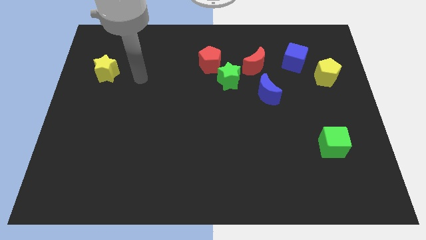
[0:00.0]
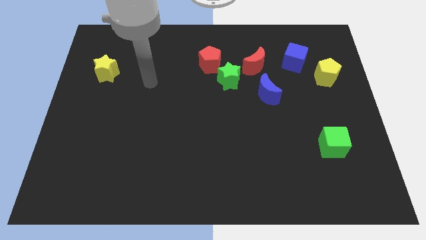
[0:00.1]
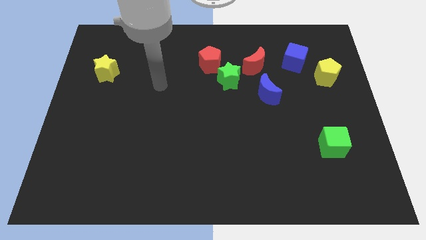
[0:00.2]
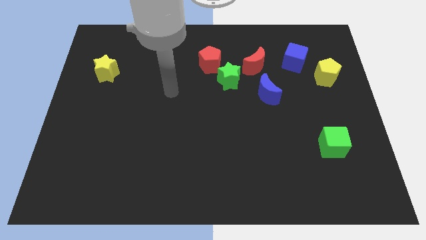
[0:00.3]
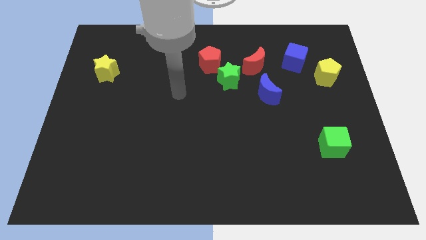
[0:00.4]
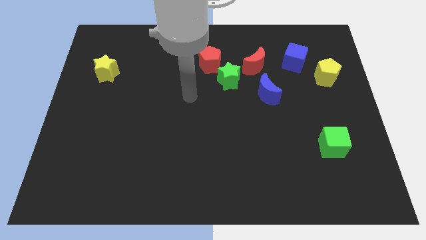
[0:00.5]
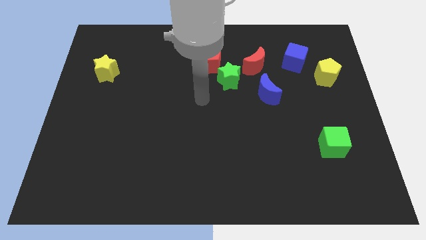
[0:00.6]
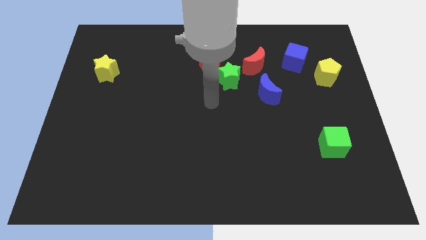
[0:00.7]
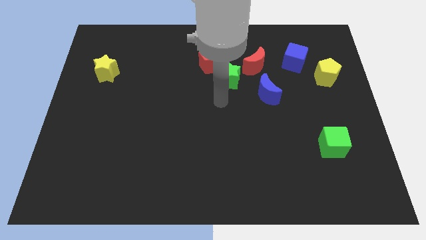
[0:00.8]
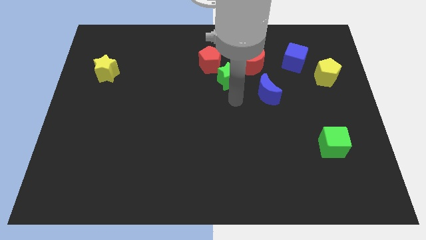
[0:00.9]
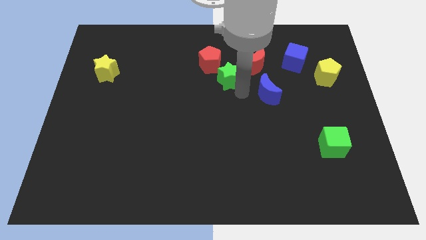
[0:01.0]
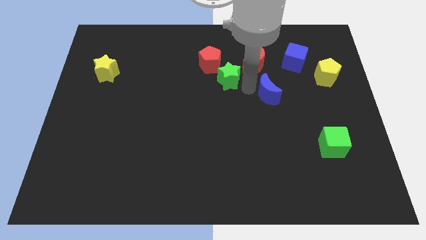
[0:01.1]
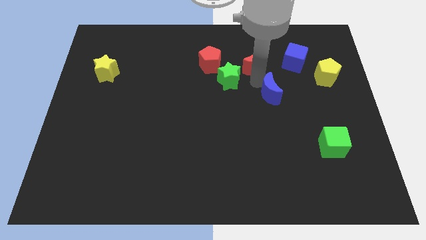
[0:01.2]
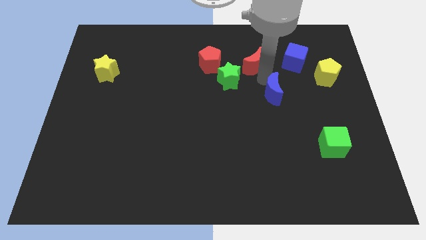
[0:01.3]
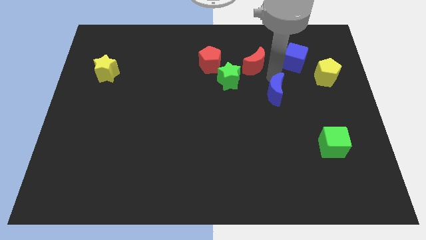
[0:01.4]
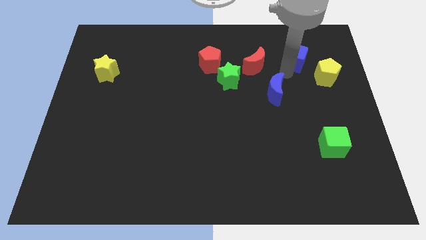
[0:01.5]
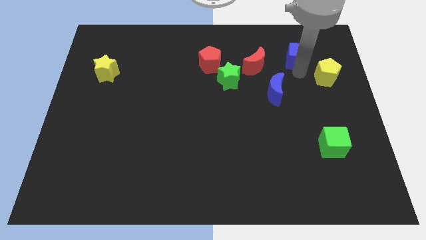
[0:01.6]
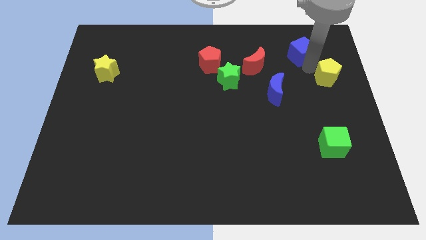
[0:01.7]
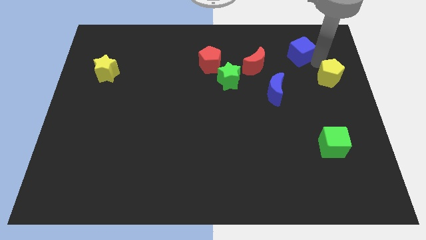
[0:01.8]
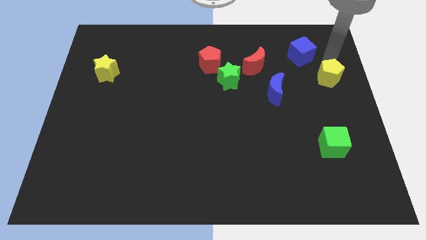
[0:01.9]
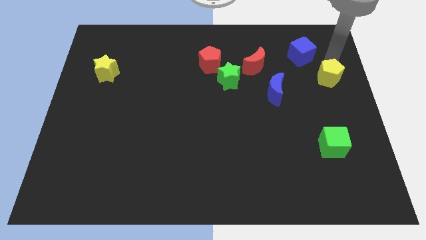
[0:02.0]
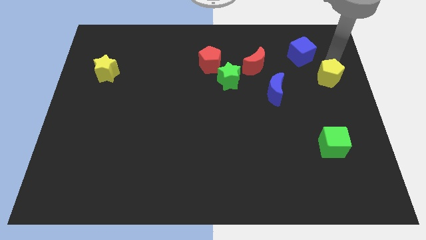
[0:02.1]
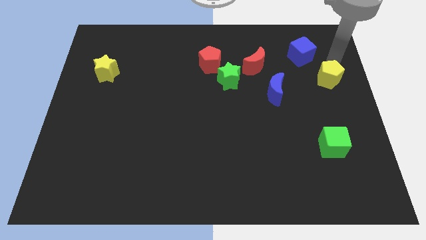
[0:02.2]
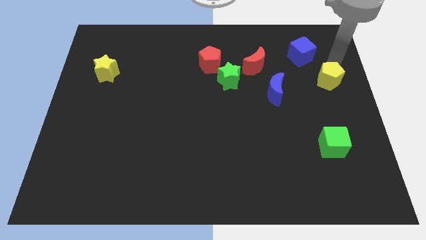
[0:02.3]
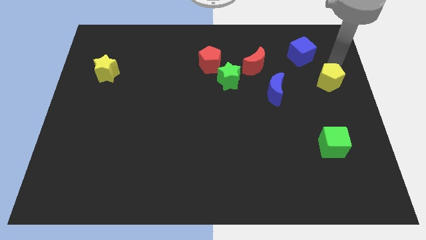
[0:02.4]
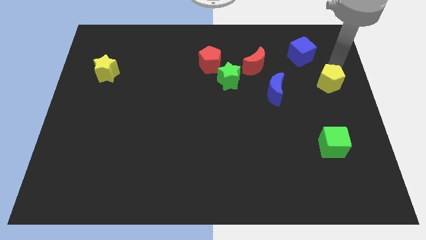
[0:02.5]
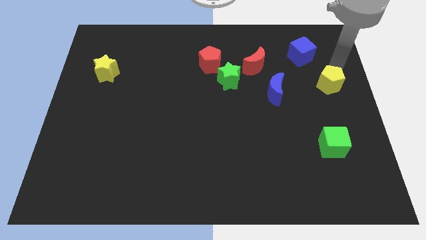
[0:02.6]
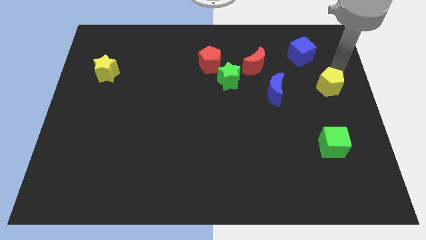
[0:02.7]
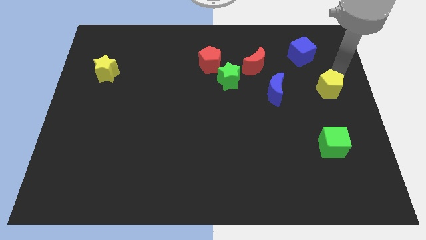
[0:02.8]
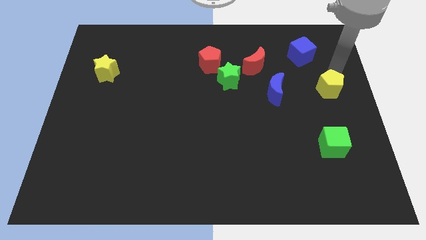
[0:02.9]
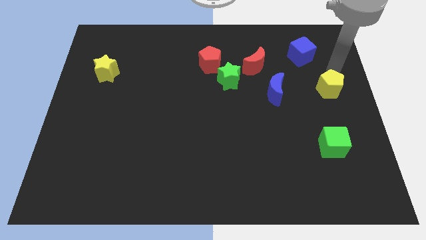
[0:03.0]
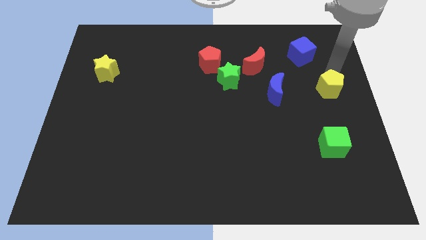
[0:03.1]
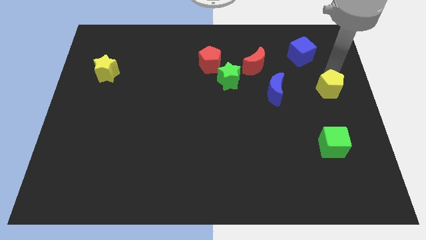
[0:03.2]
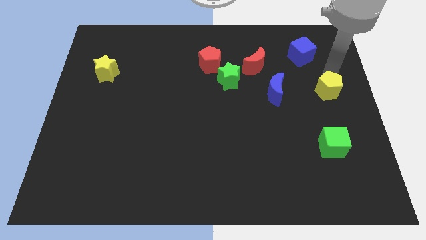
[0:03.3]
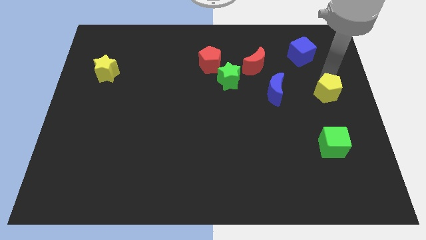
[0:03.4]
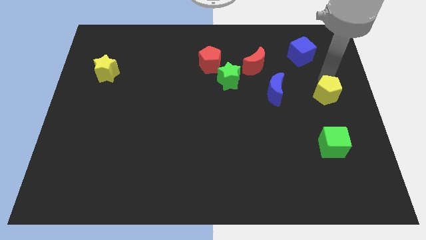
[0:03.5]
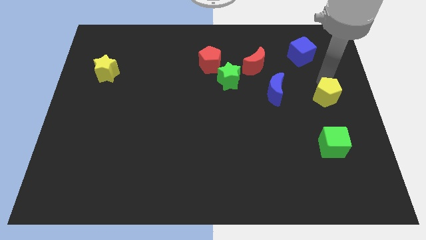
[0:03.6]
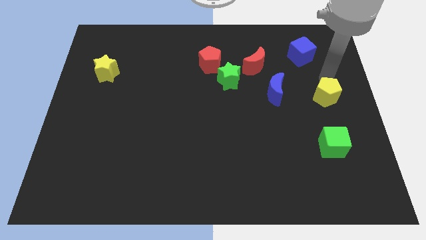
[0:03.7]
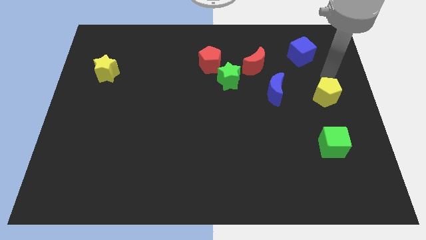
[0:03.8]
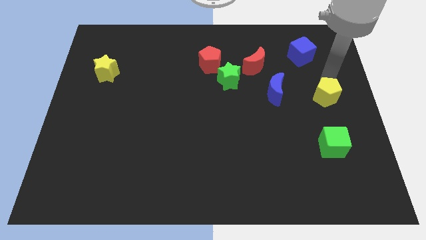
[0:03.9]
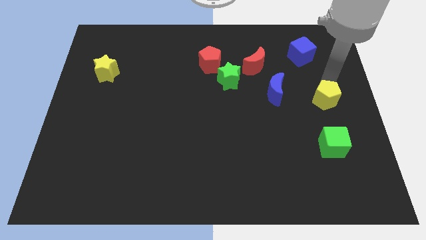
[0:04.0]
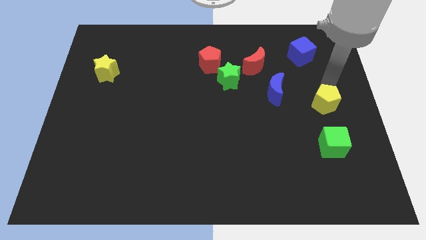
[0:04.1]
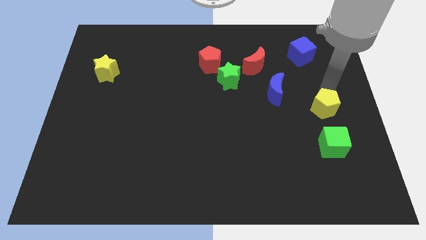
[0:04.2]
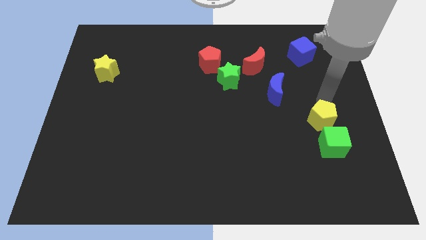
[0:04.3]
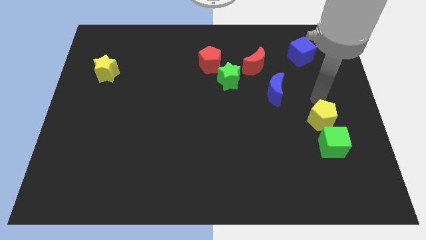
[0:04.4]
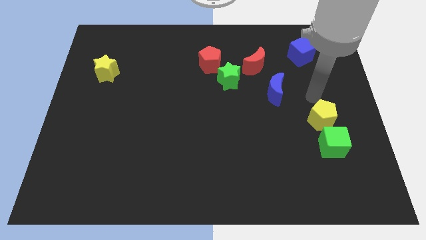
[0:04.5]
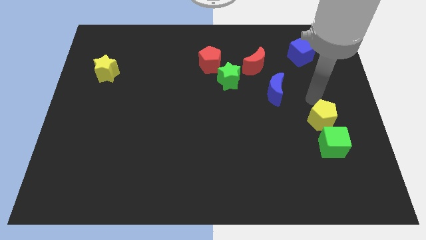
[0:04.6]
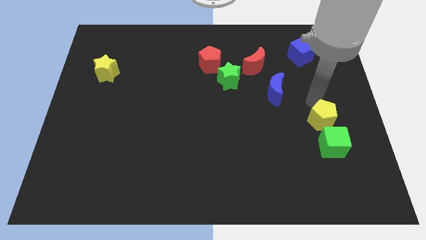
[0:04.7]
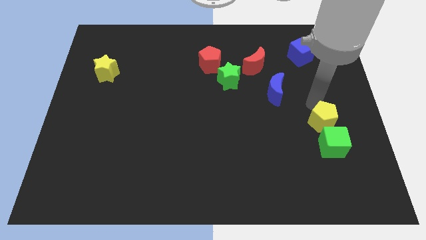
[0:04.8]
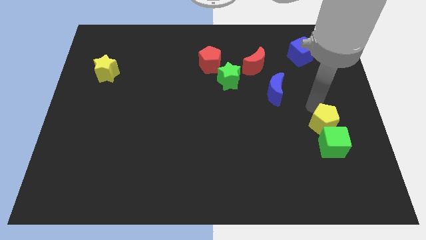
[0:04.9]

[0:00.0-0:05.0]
slide the yellow pentagon to the green cube

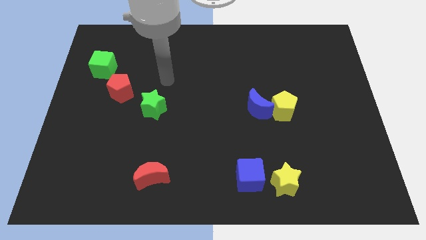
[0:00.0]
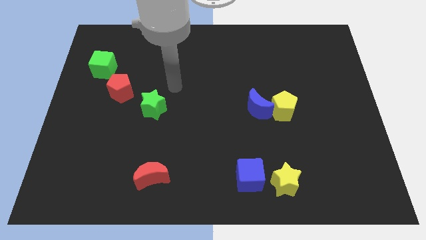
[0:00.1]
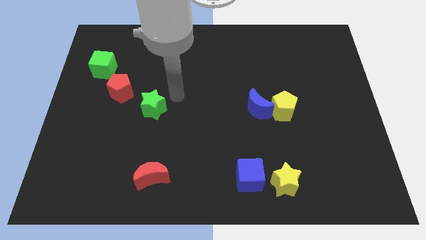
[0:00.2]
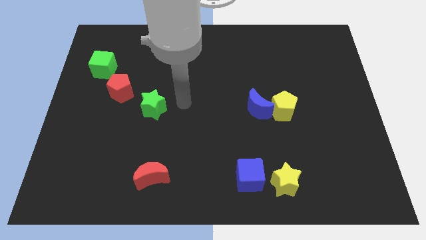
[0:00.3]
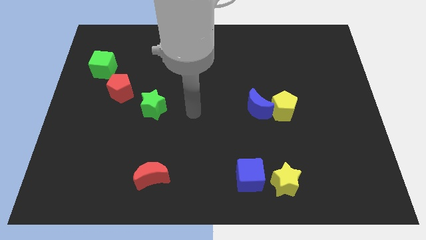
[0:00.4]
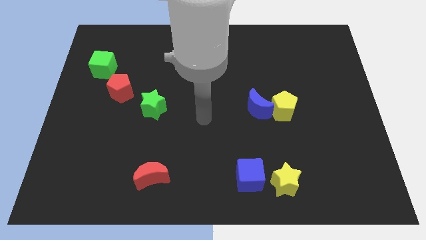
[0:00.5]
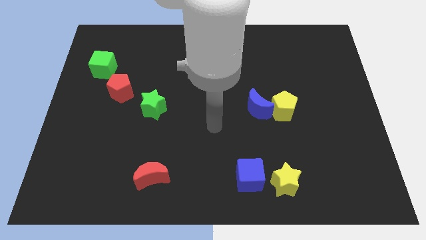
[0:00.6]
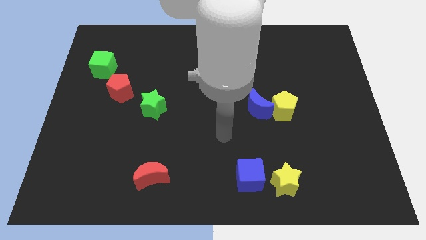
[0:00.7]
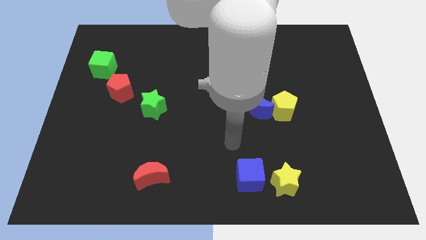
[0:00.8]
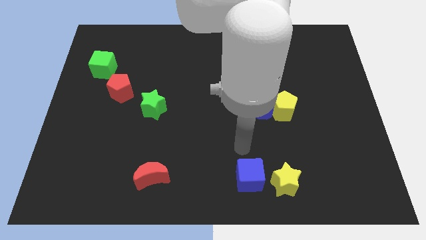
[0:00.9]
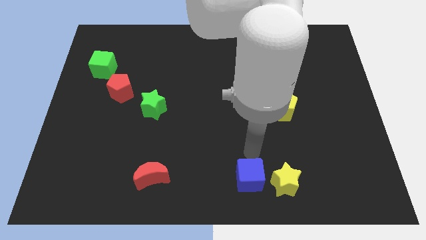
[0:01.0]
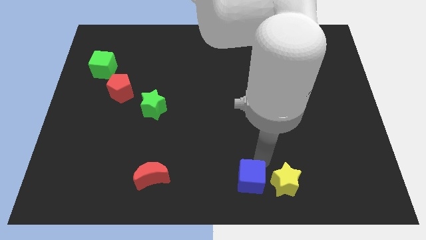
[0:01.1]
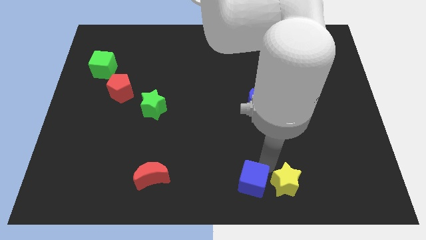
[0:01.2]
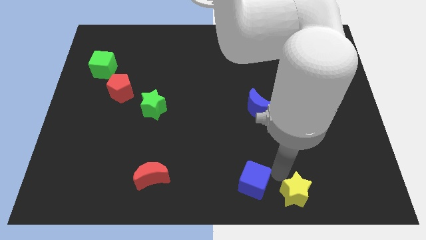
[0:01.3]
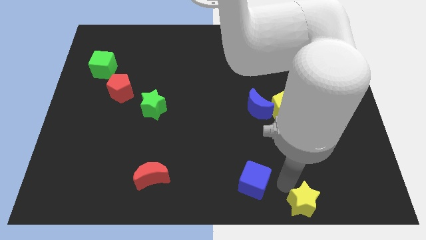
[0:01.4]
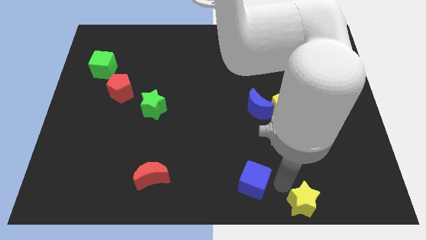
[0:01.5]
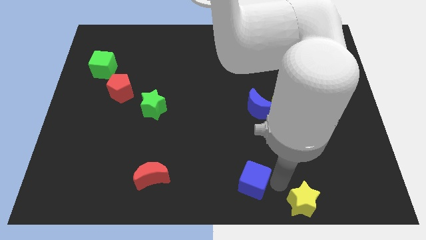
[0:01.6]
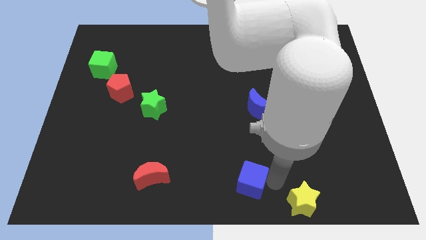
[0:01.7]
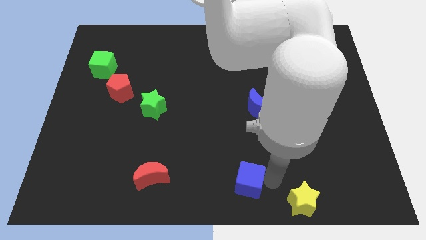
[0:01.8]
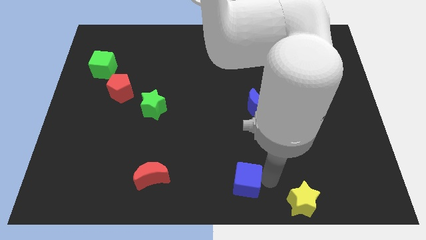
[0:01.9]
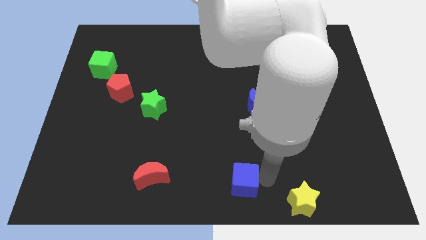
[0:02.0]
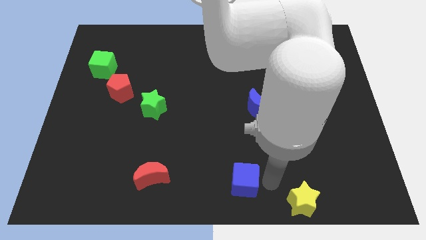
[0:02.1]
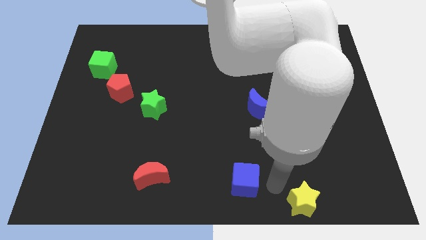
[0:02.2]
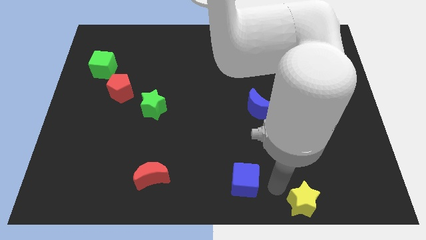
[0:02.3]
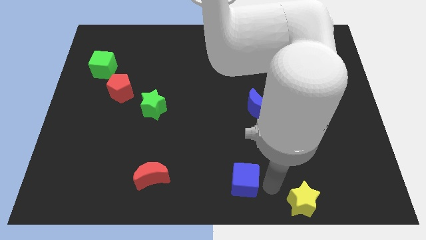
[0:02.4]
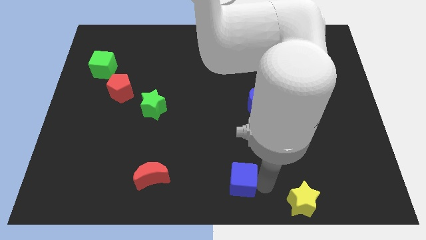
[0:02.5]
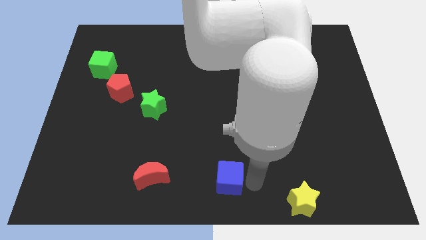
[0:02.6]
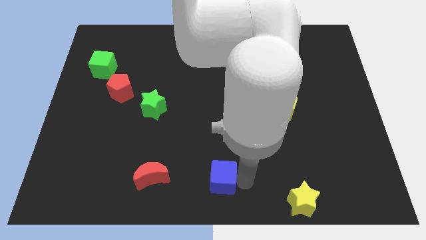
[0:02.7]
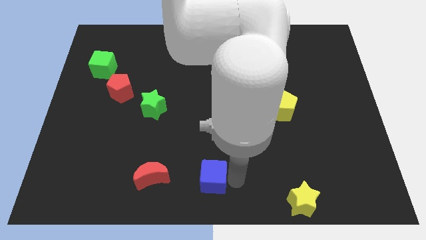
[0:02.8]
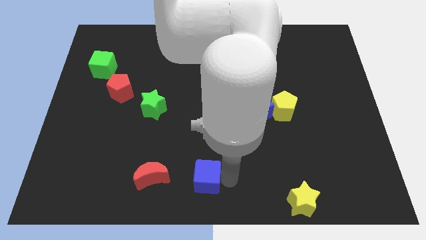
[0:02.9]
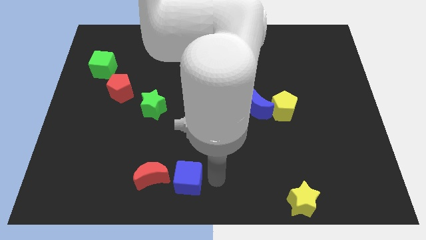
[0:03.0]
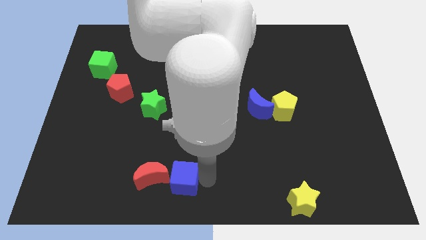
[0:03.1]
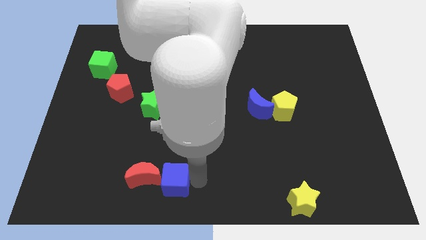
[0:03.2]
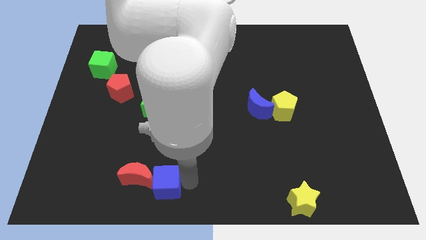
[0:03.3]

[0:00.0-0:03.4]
move the blue cube to the red moon
